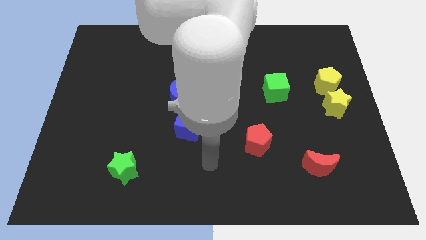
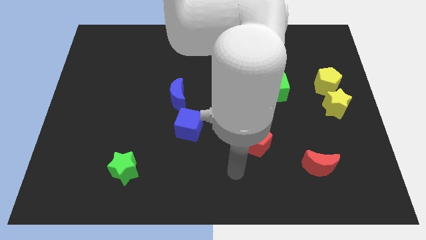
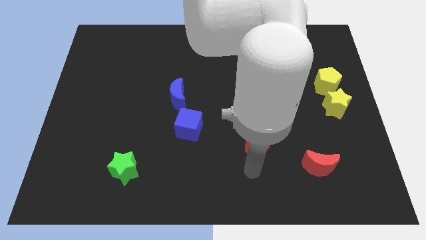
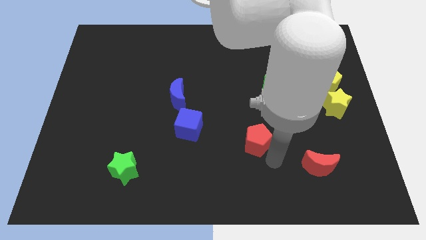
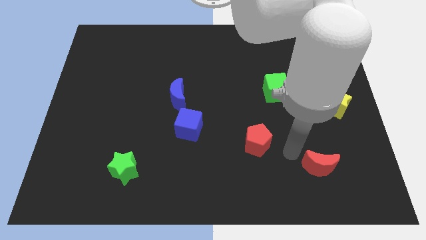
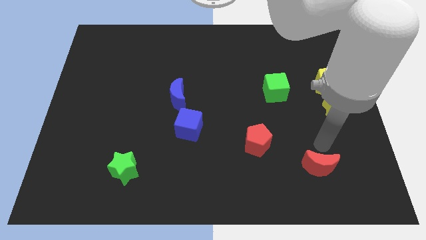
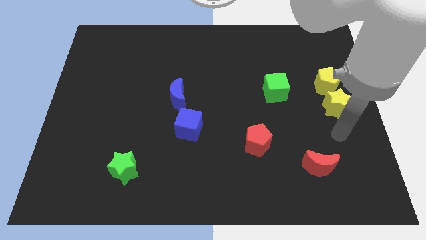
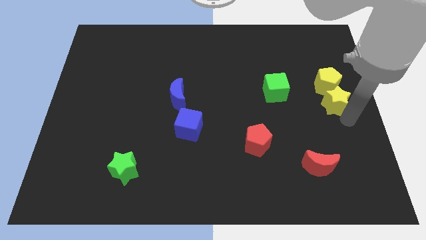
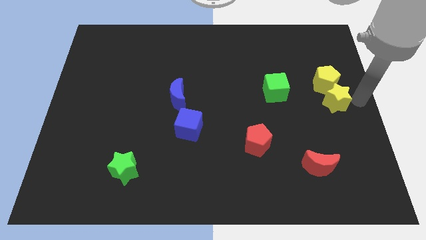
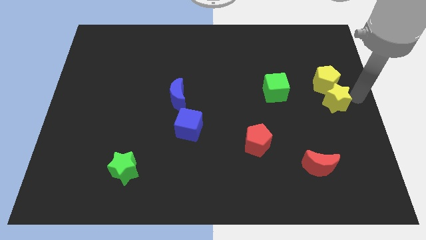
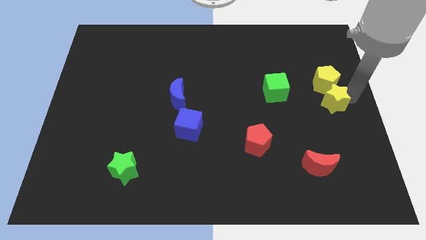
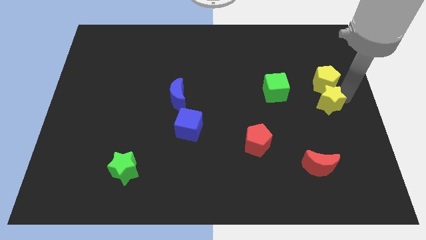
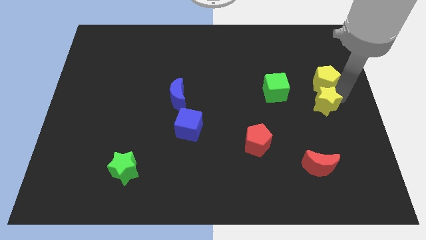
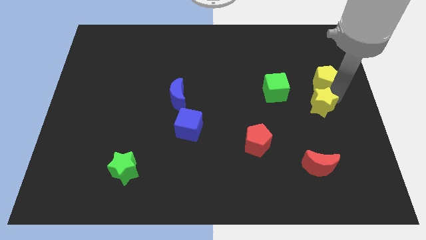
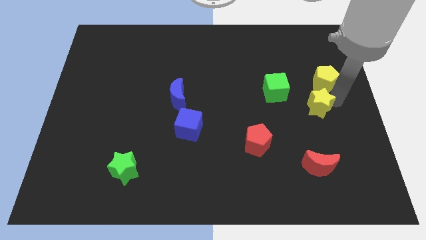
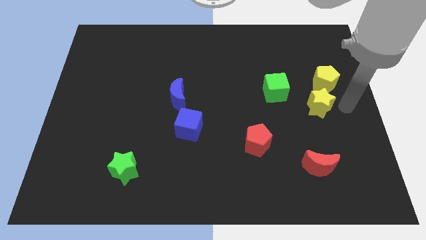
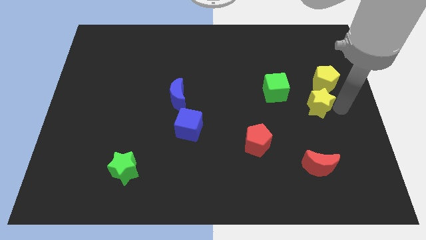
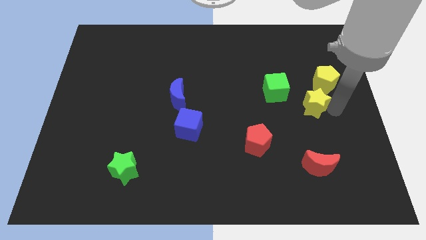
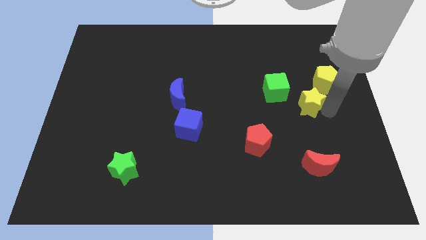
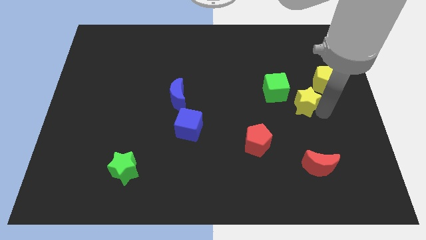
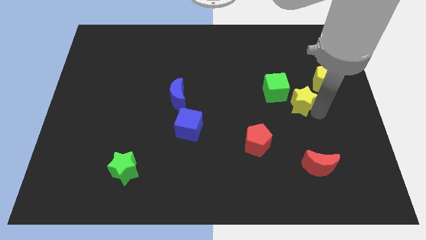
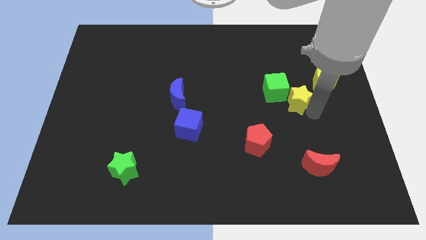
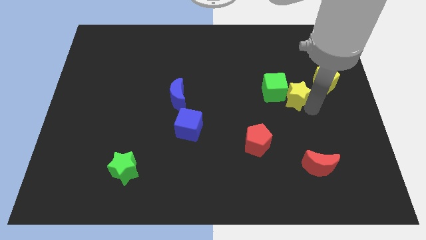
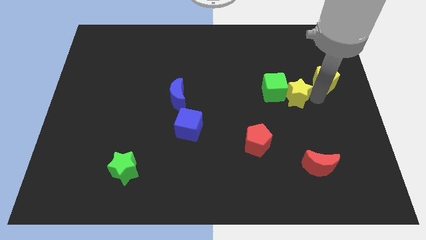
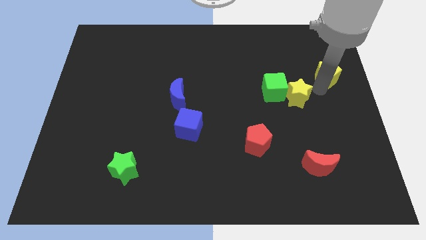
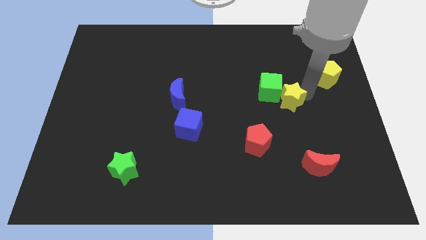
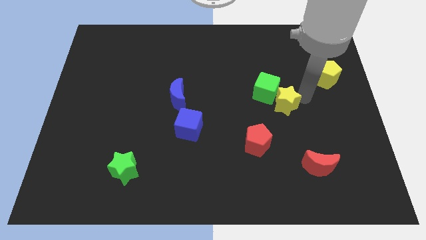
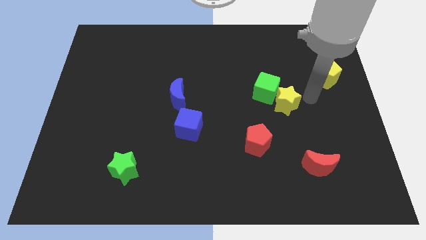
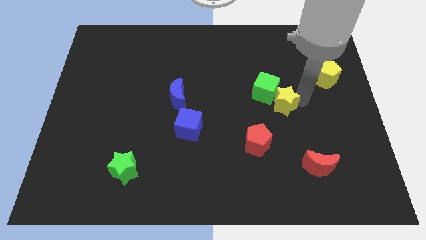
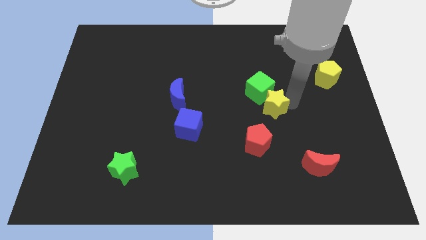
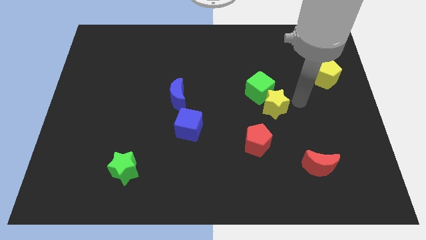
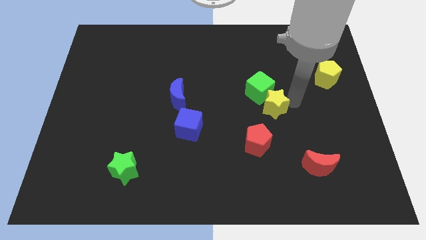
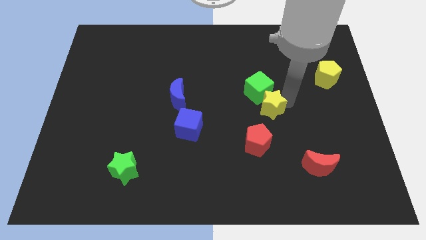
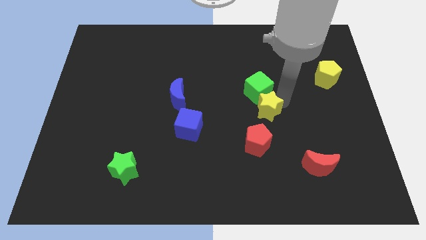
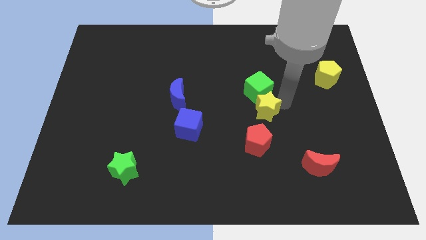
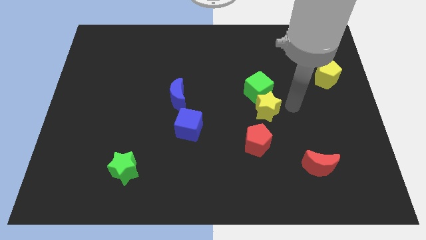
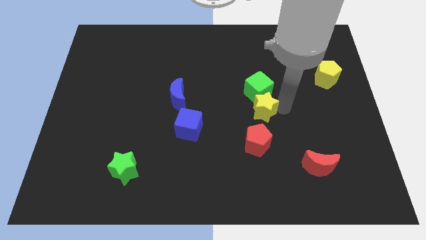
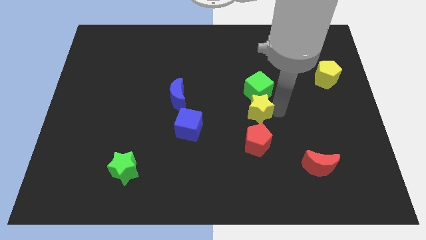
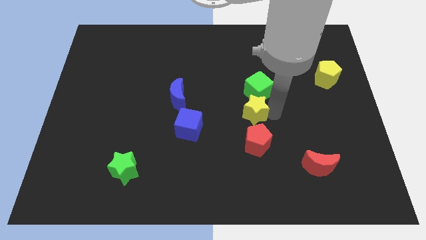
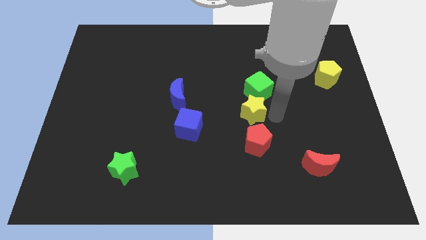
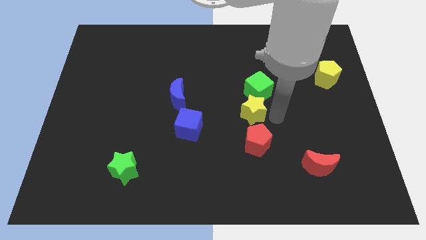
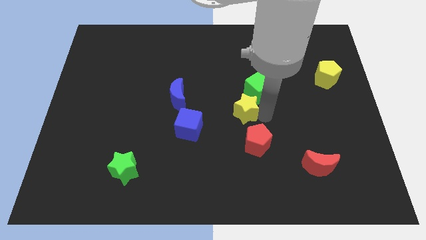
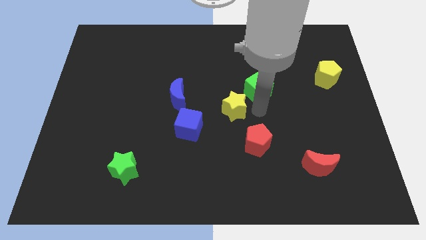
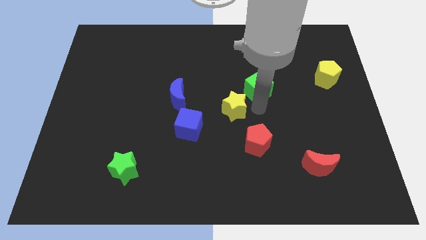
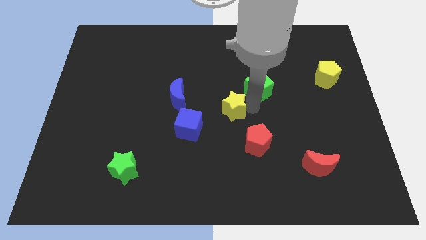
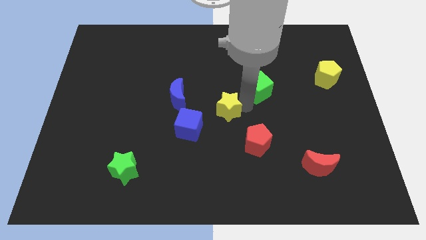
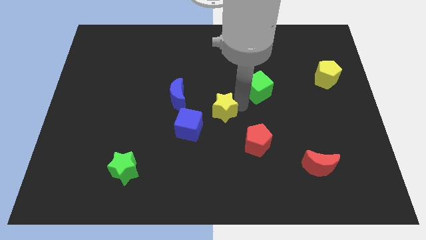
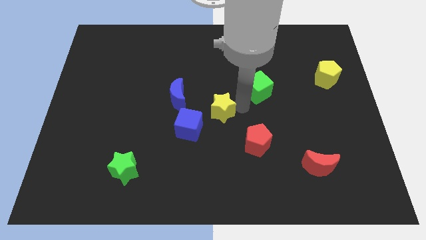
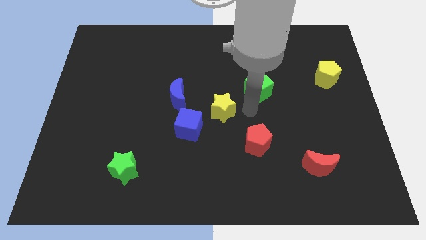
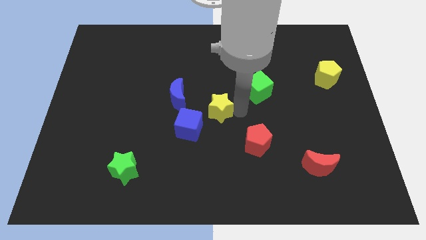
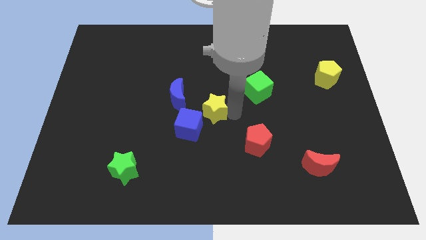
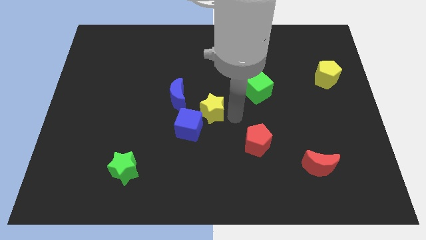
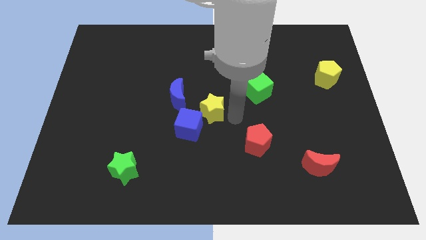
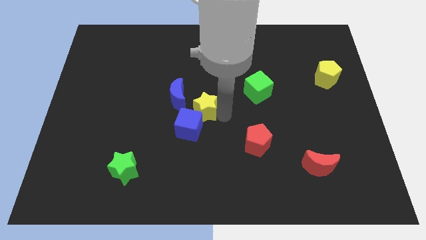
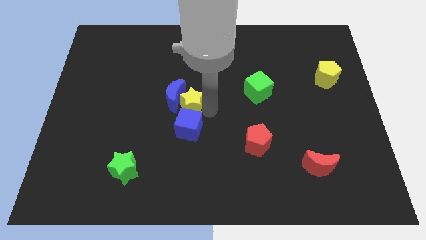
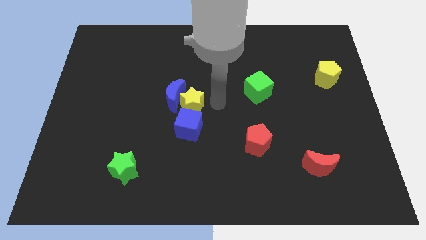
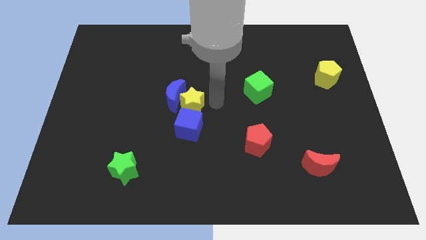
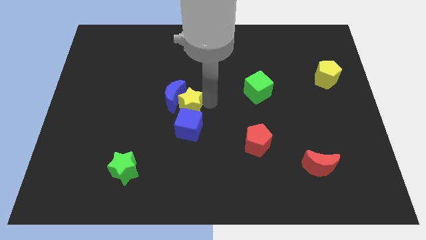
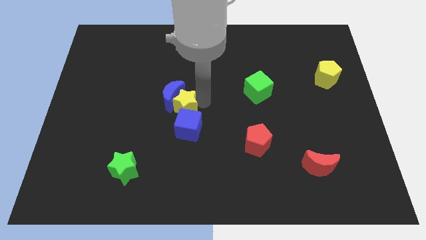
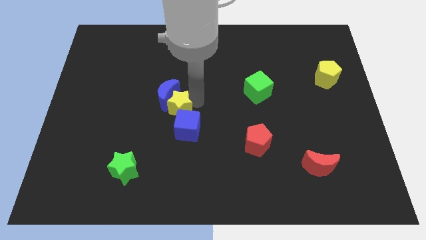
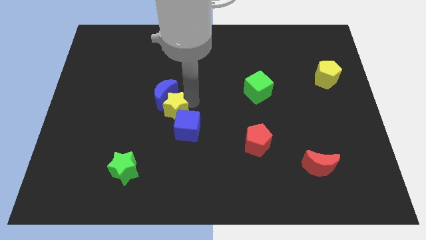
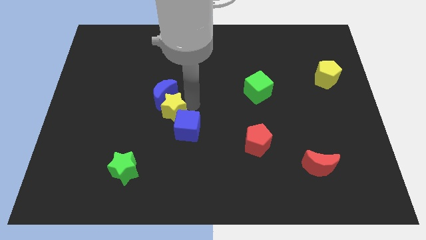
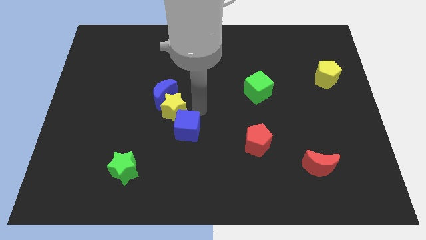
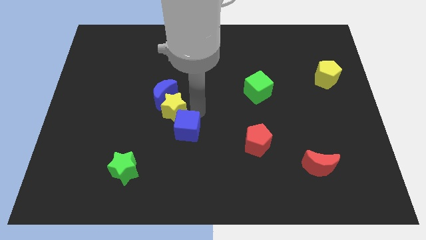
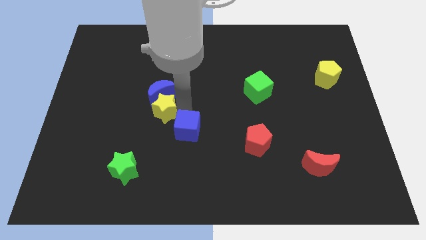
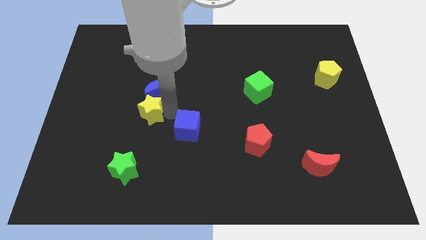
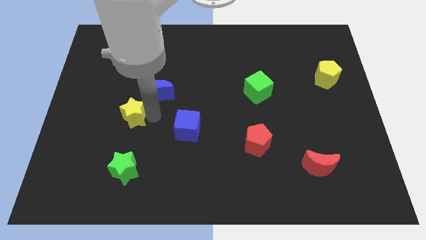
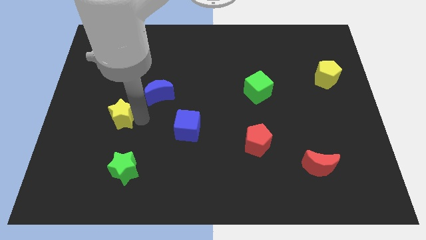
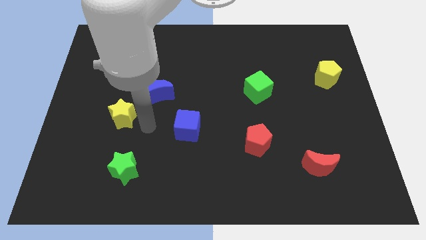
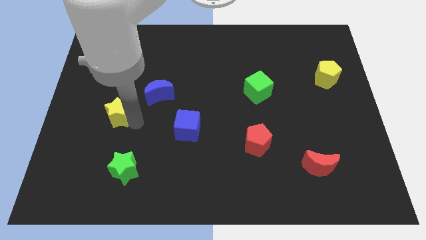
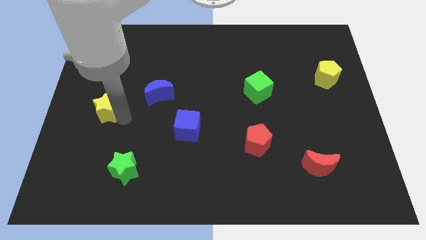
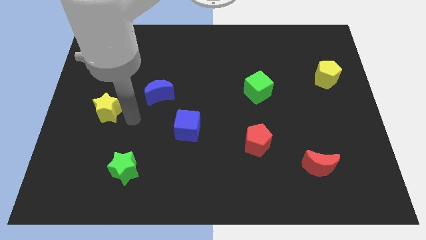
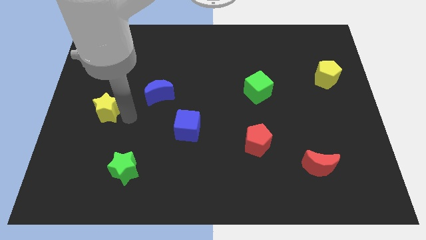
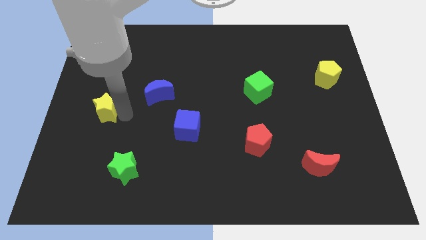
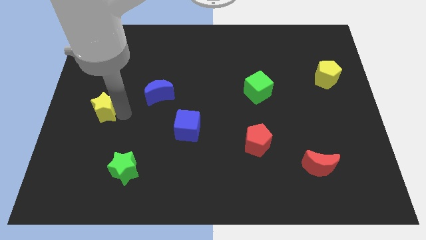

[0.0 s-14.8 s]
move the yellow star to the left side
